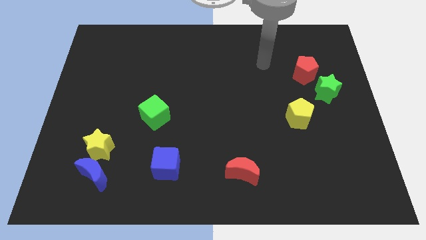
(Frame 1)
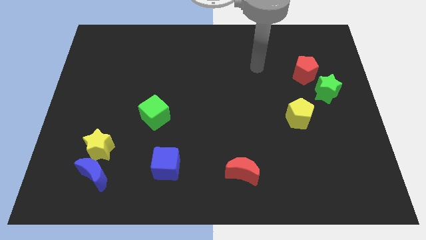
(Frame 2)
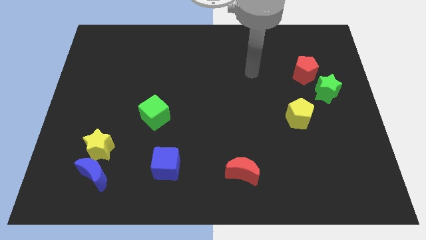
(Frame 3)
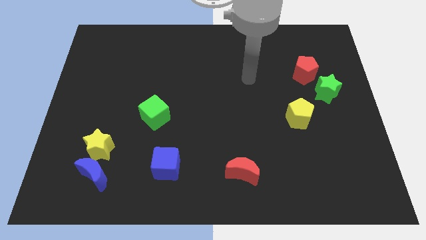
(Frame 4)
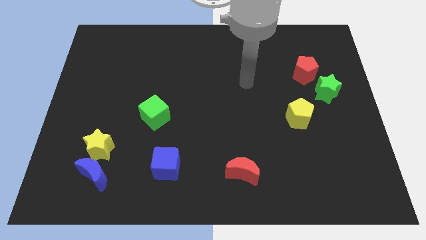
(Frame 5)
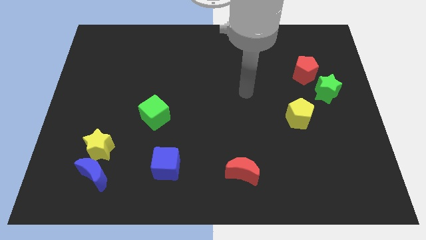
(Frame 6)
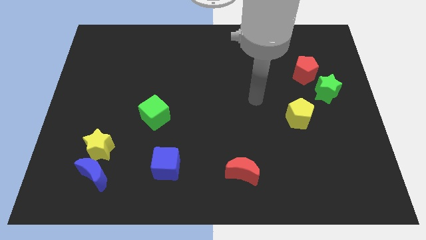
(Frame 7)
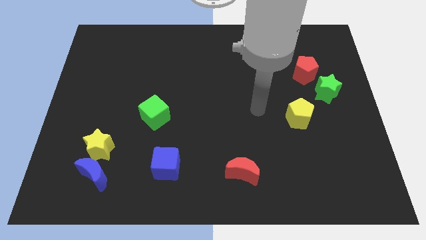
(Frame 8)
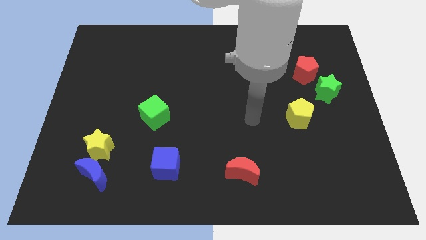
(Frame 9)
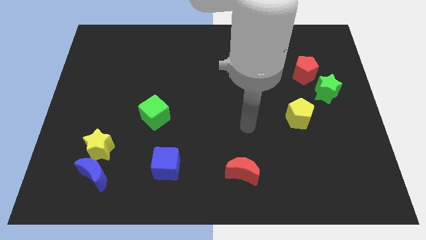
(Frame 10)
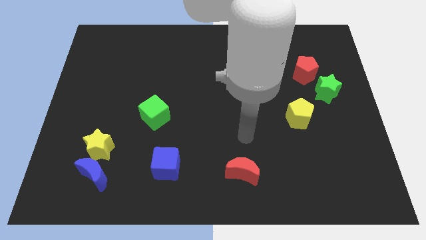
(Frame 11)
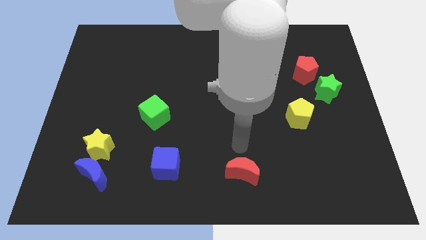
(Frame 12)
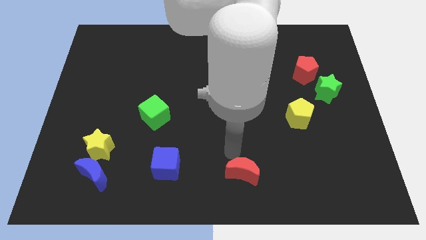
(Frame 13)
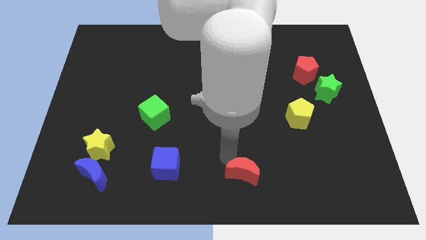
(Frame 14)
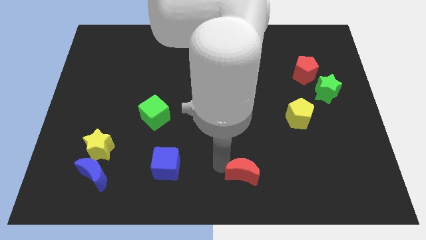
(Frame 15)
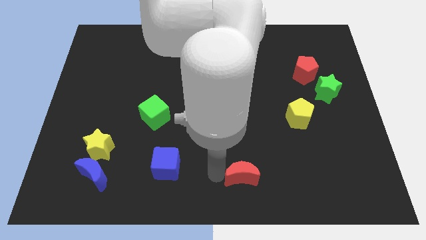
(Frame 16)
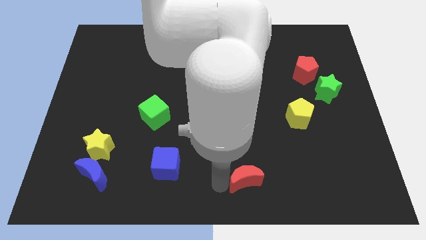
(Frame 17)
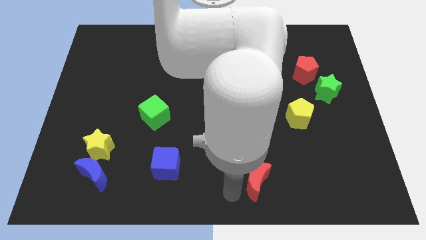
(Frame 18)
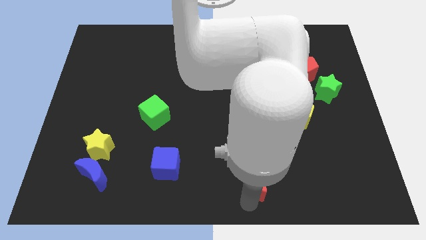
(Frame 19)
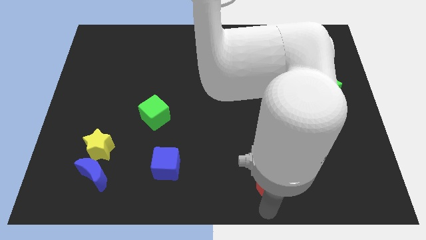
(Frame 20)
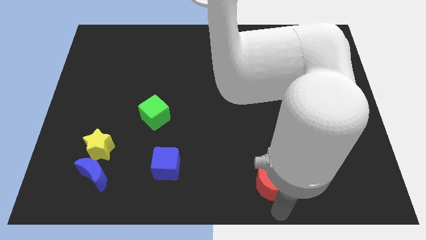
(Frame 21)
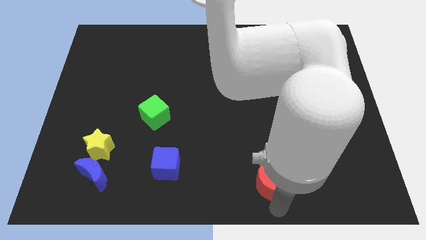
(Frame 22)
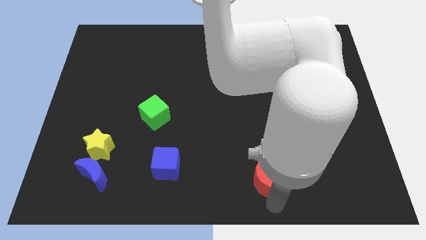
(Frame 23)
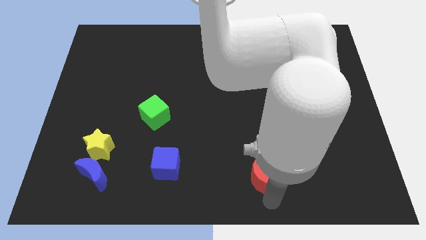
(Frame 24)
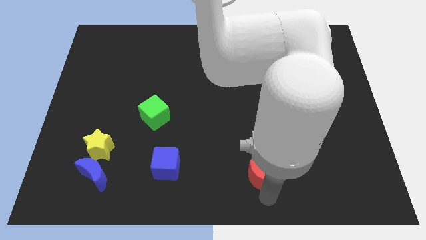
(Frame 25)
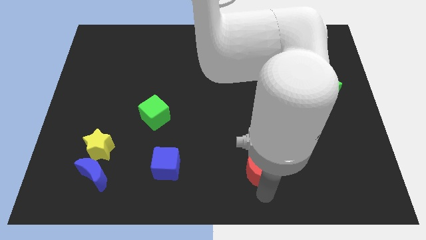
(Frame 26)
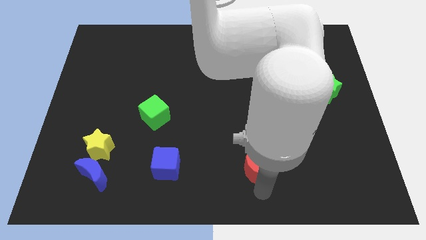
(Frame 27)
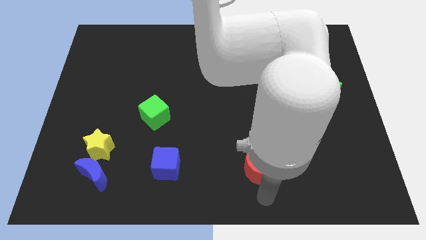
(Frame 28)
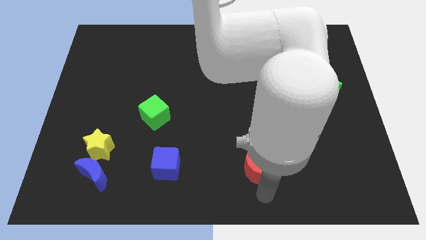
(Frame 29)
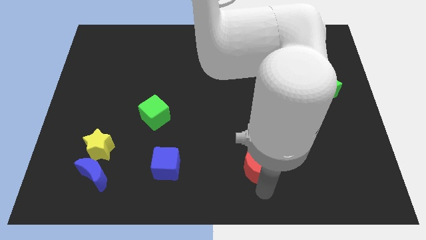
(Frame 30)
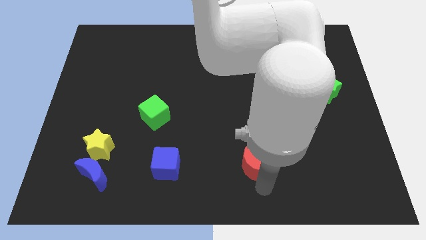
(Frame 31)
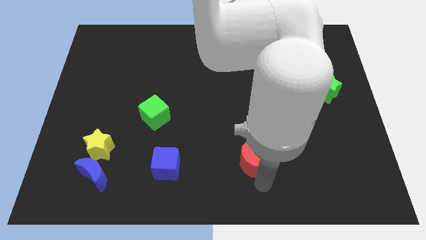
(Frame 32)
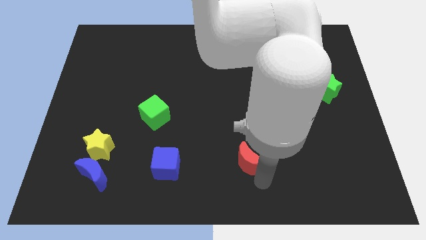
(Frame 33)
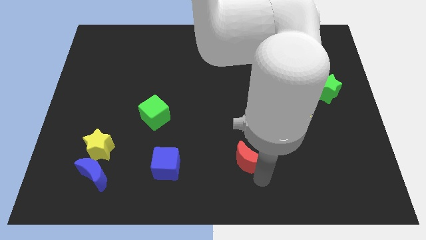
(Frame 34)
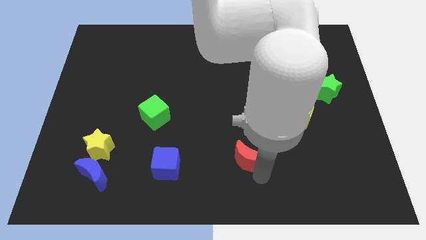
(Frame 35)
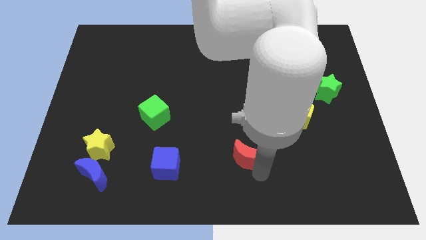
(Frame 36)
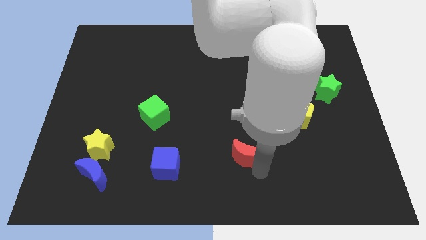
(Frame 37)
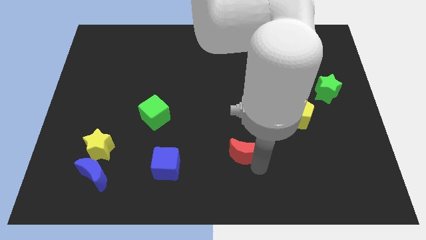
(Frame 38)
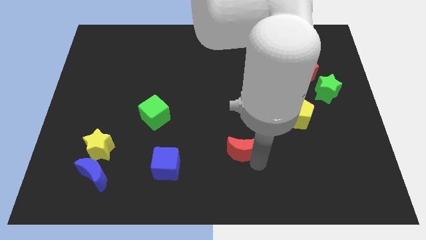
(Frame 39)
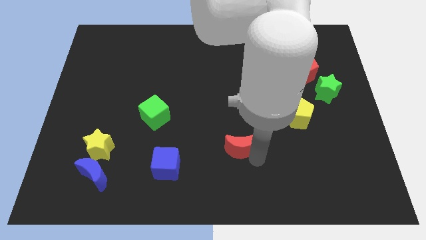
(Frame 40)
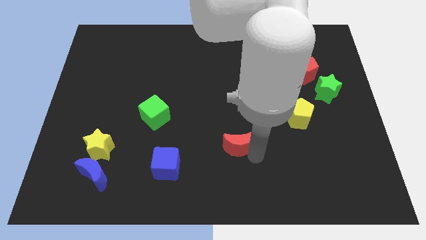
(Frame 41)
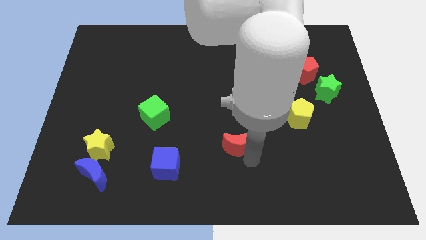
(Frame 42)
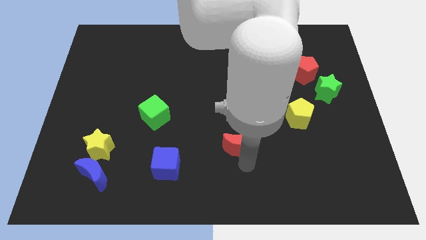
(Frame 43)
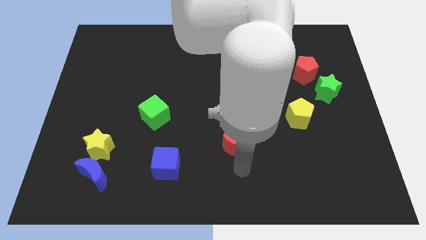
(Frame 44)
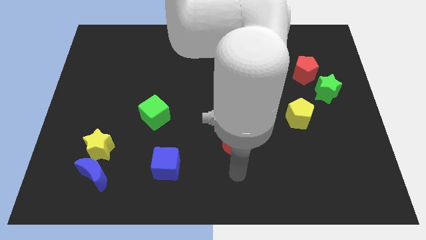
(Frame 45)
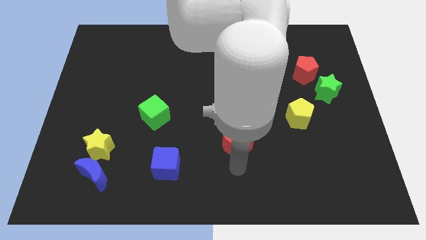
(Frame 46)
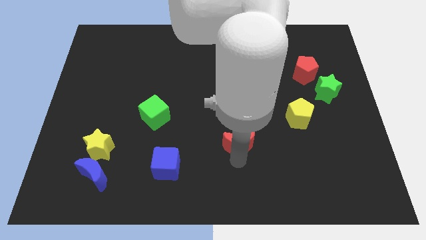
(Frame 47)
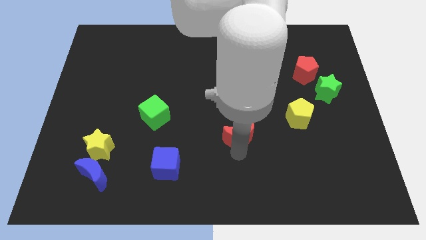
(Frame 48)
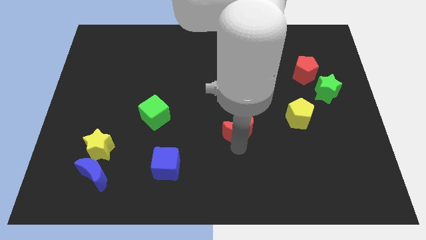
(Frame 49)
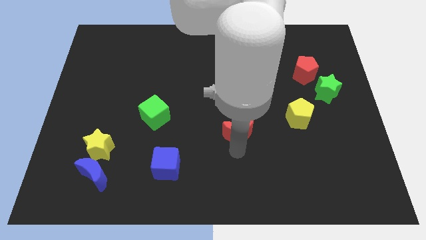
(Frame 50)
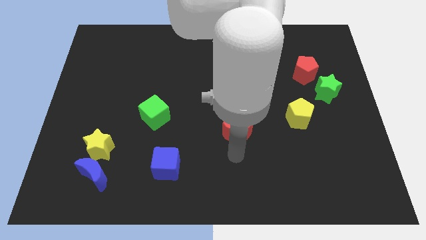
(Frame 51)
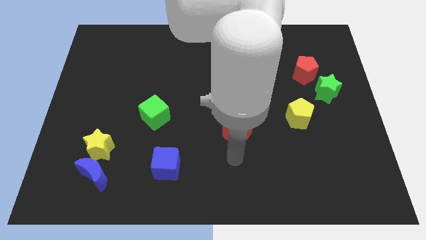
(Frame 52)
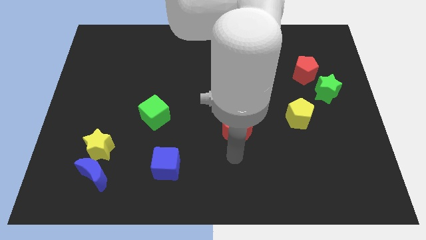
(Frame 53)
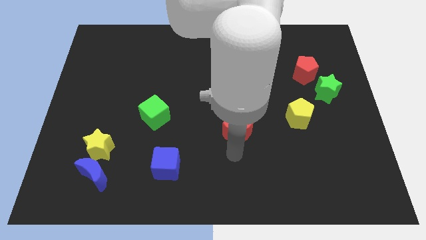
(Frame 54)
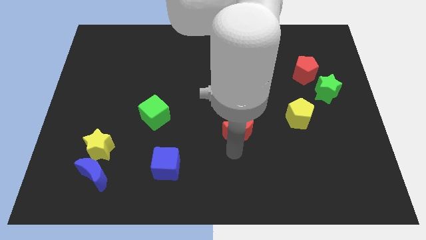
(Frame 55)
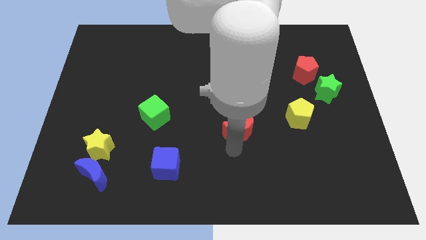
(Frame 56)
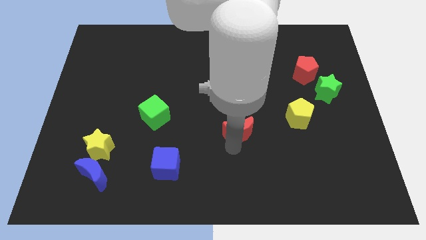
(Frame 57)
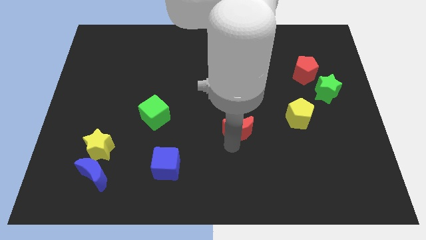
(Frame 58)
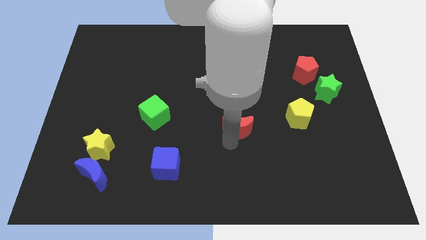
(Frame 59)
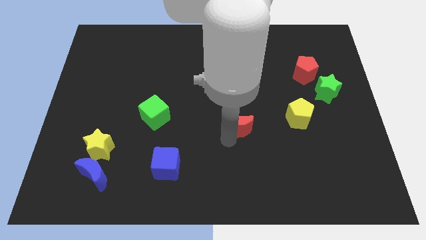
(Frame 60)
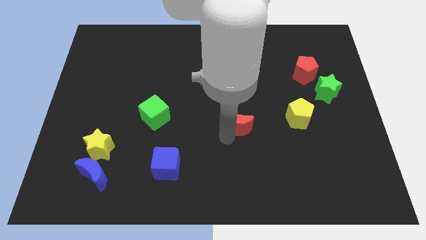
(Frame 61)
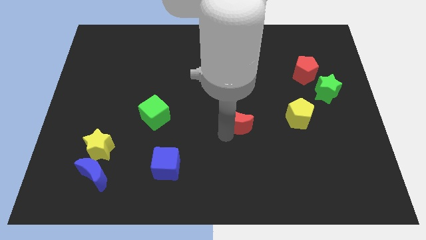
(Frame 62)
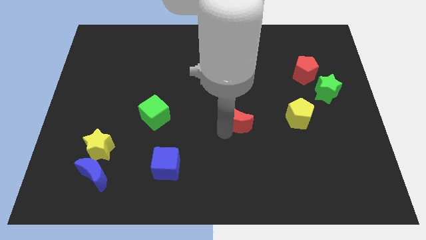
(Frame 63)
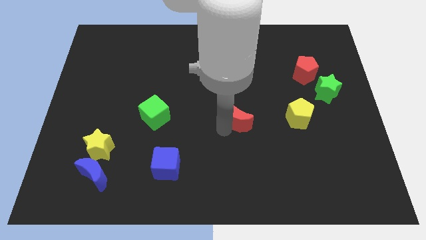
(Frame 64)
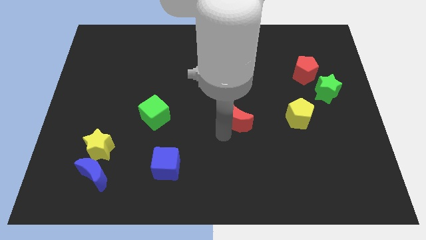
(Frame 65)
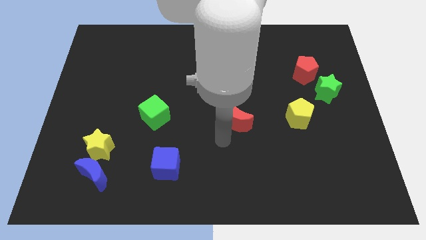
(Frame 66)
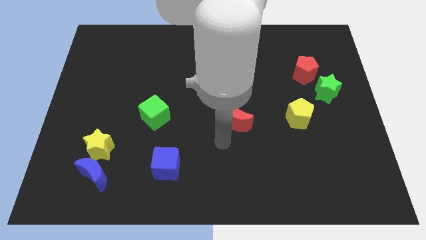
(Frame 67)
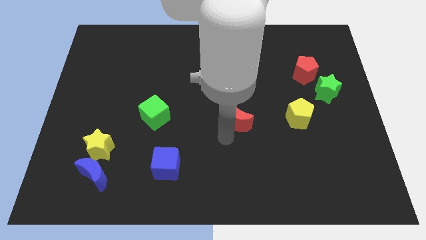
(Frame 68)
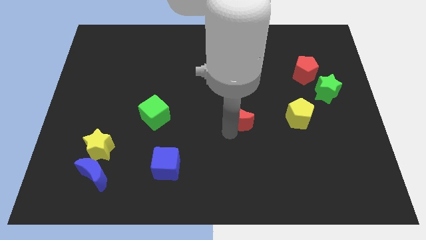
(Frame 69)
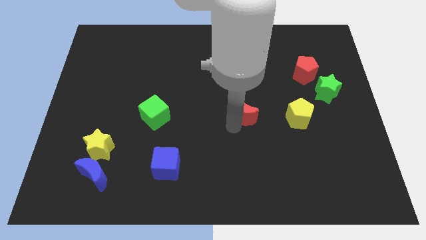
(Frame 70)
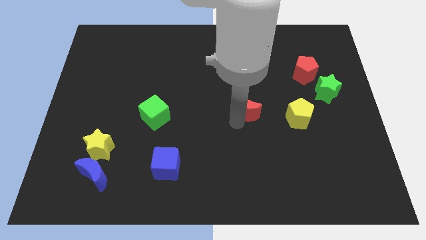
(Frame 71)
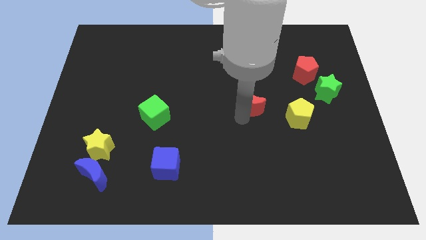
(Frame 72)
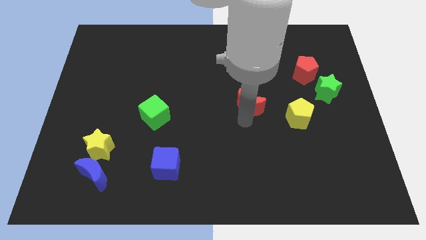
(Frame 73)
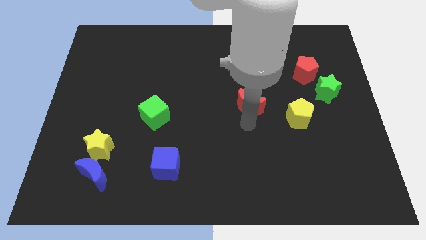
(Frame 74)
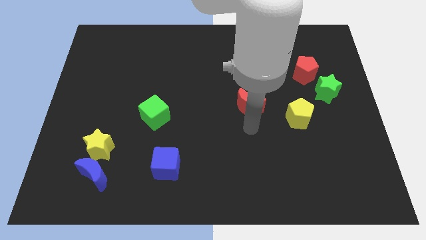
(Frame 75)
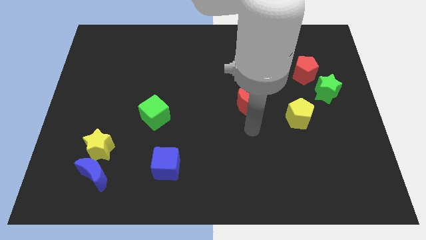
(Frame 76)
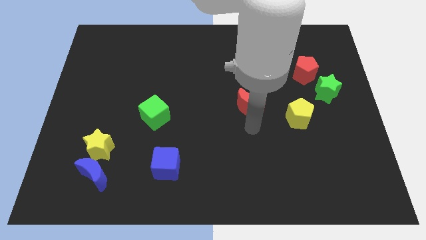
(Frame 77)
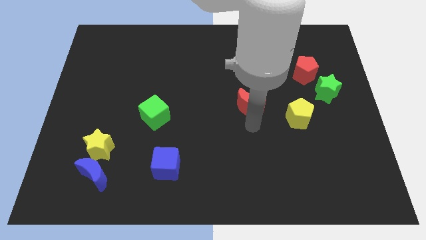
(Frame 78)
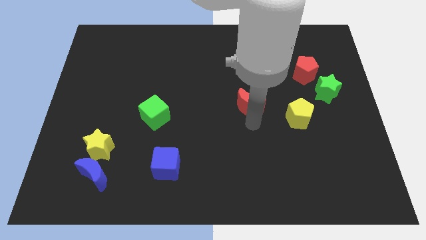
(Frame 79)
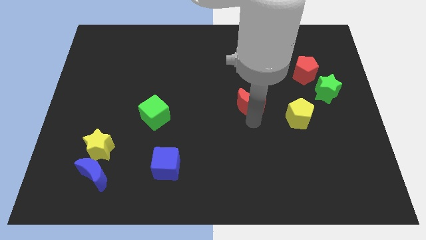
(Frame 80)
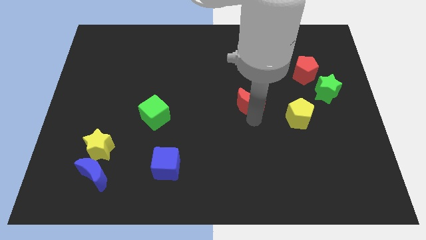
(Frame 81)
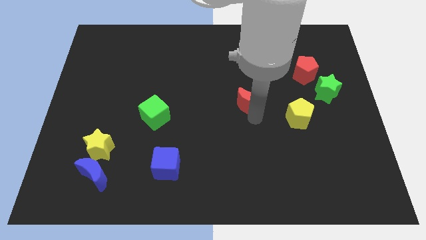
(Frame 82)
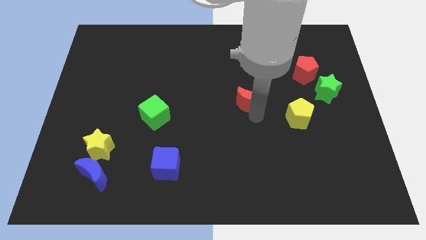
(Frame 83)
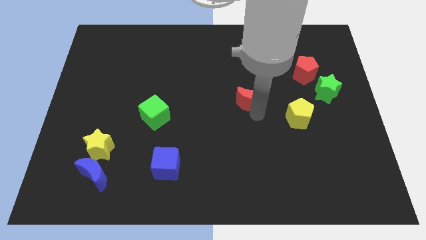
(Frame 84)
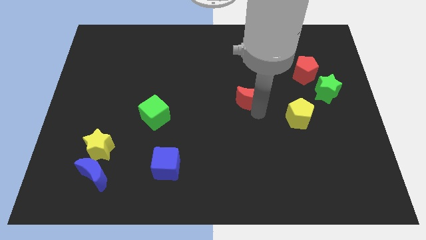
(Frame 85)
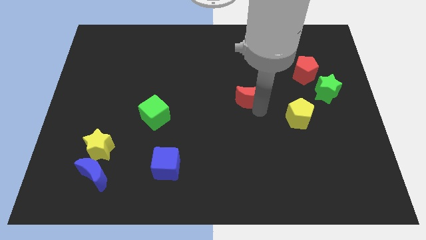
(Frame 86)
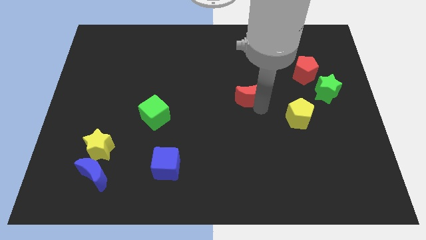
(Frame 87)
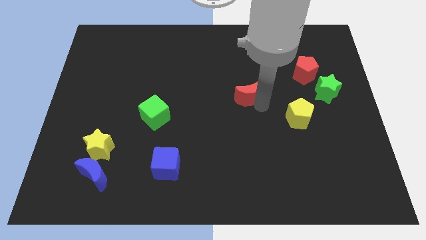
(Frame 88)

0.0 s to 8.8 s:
move the red moon up
